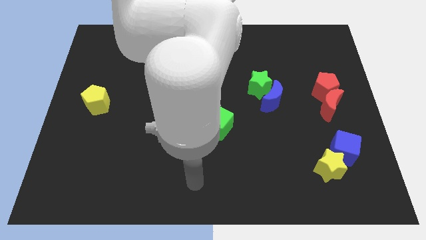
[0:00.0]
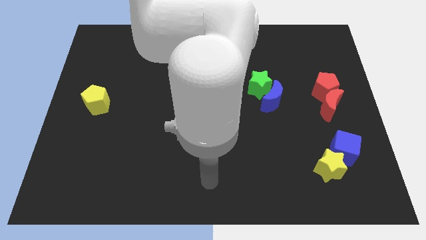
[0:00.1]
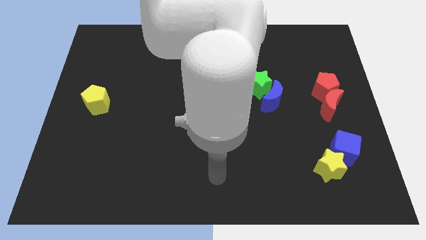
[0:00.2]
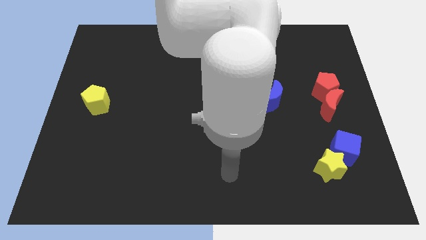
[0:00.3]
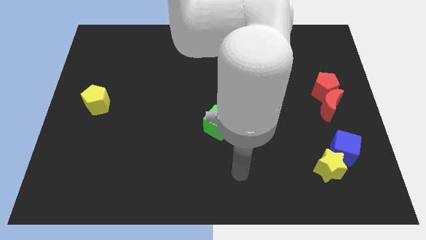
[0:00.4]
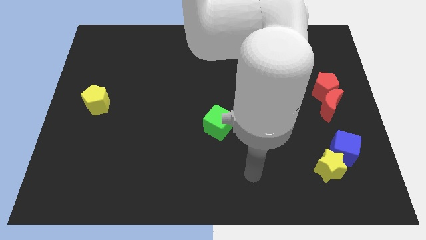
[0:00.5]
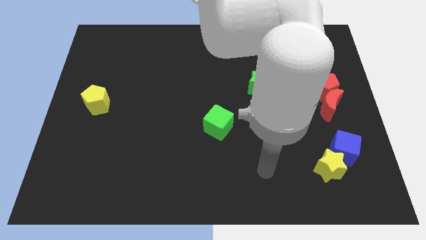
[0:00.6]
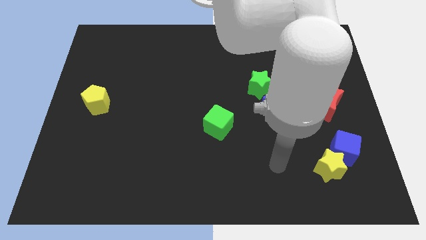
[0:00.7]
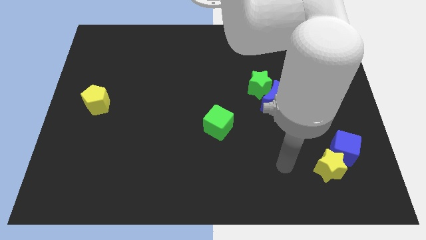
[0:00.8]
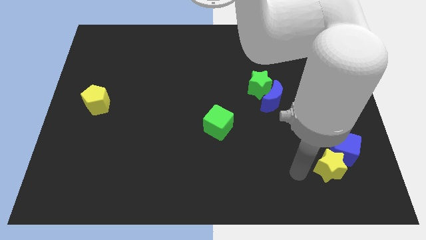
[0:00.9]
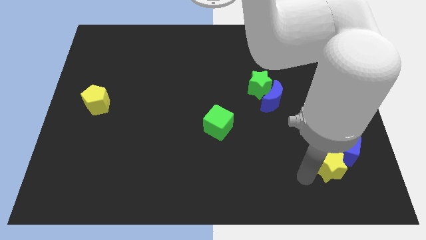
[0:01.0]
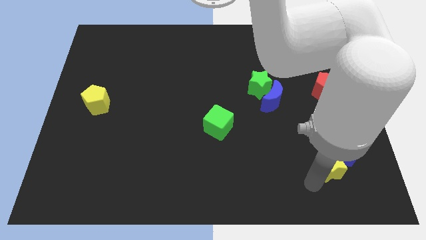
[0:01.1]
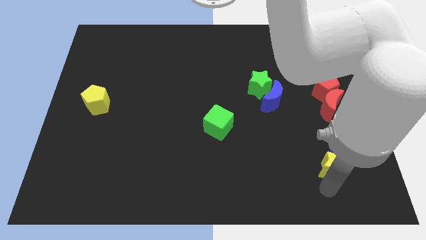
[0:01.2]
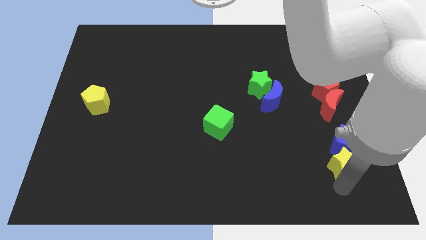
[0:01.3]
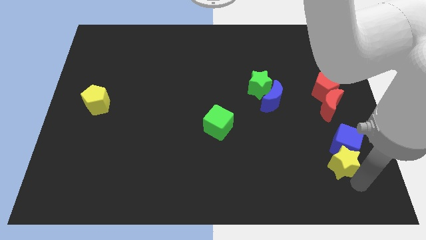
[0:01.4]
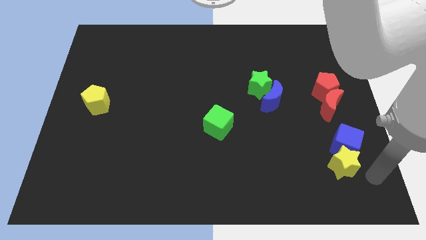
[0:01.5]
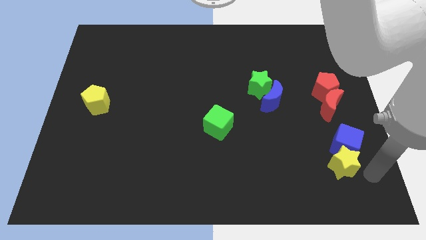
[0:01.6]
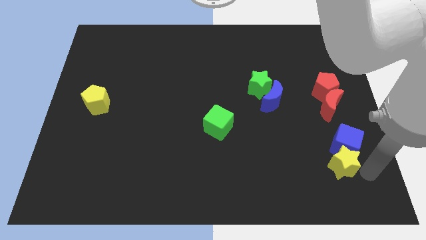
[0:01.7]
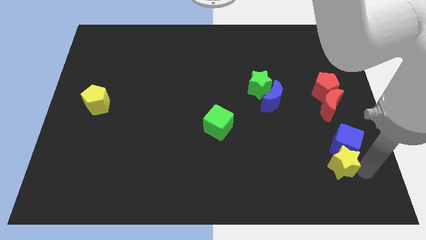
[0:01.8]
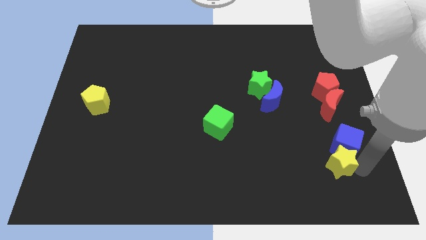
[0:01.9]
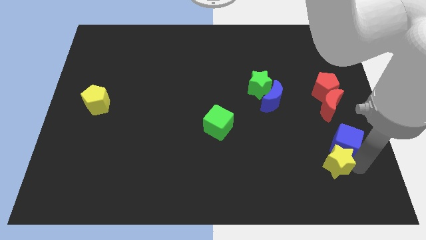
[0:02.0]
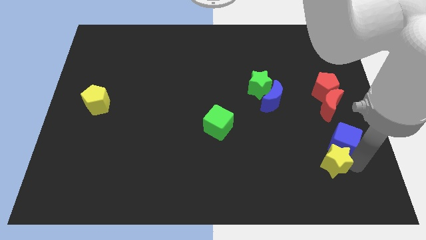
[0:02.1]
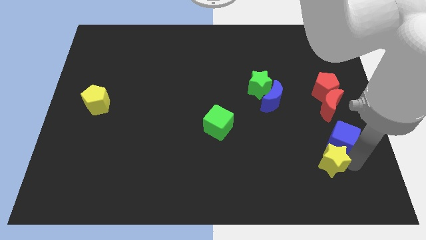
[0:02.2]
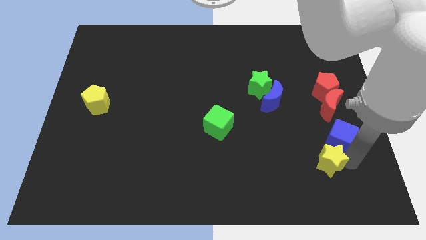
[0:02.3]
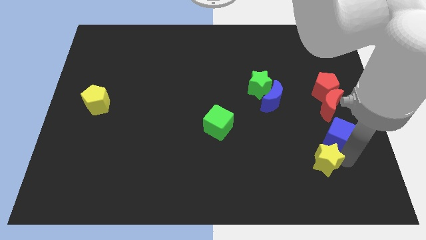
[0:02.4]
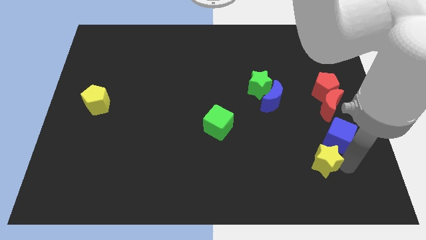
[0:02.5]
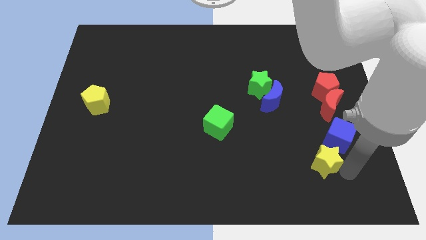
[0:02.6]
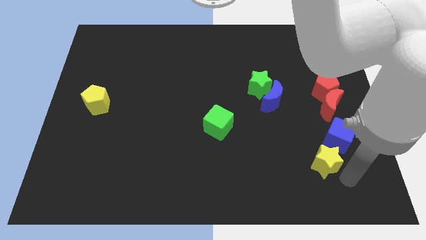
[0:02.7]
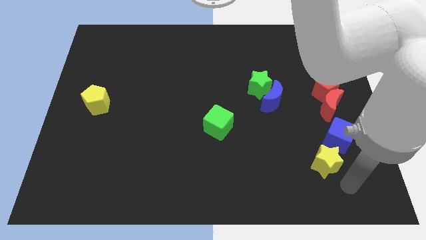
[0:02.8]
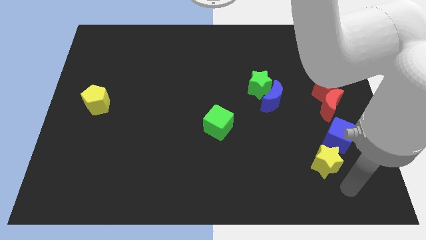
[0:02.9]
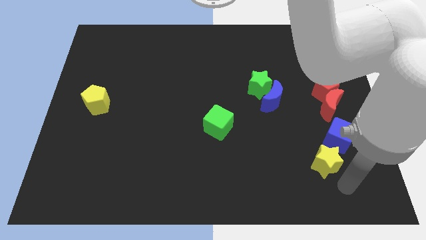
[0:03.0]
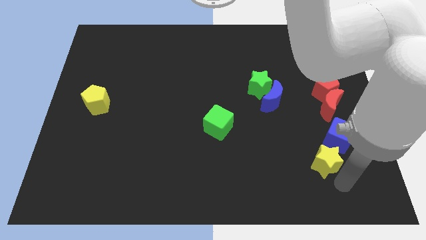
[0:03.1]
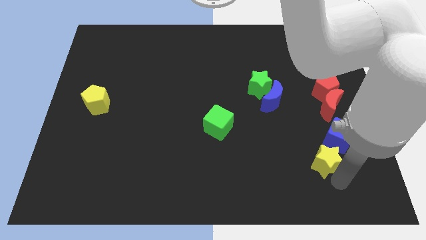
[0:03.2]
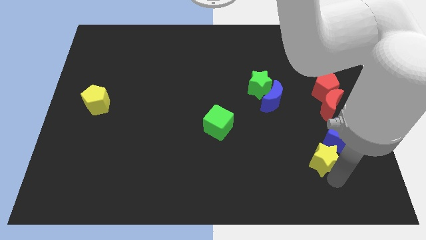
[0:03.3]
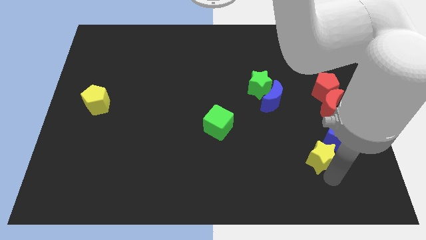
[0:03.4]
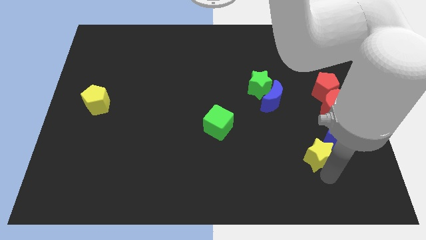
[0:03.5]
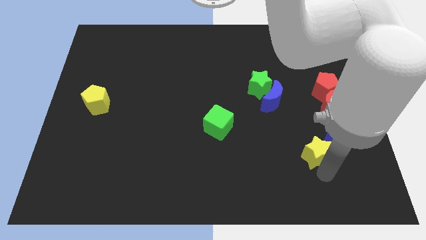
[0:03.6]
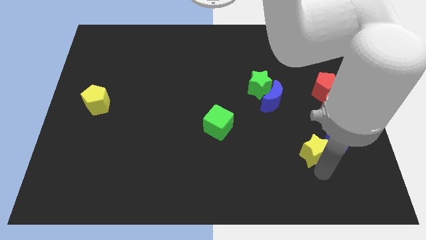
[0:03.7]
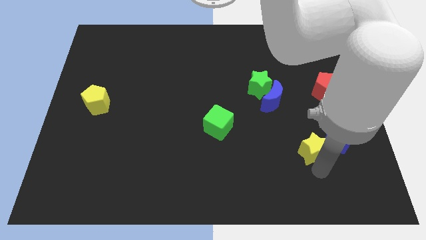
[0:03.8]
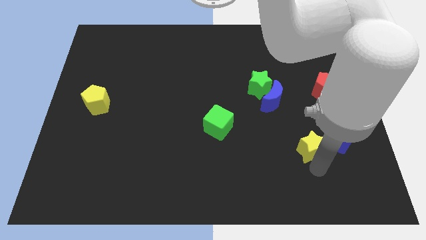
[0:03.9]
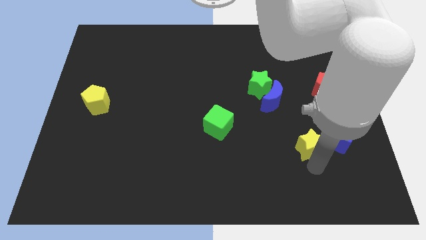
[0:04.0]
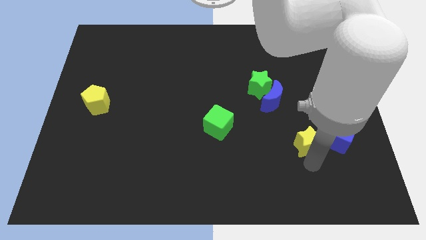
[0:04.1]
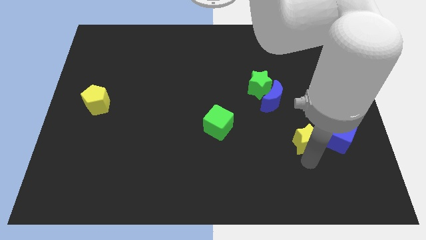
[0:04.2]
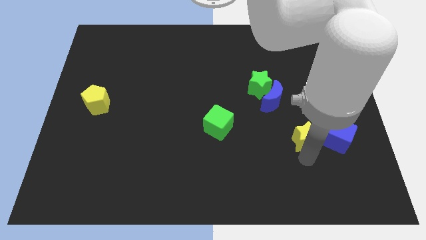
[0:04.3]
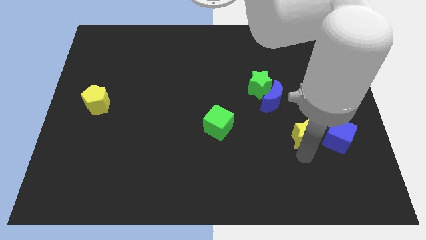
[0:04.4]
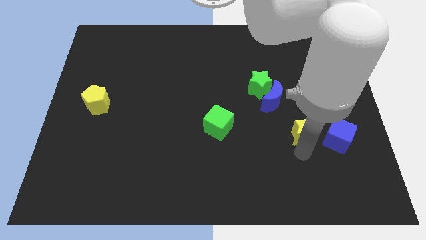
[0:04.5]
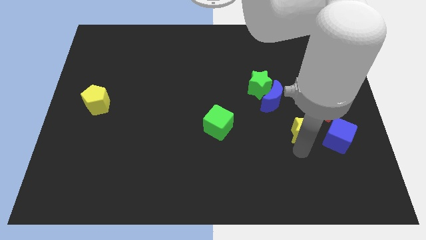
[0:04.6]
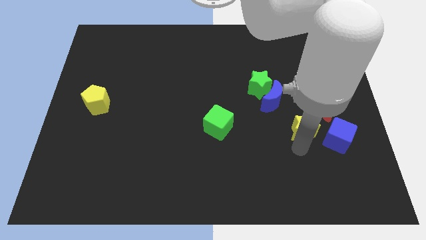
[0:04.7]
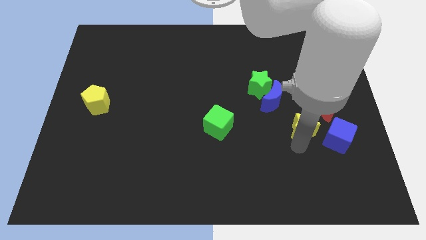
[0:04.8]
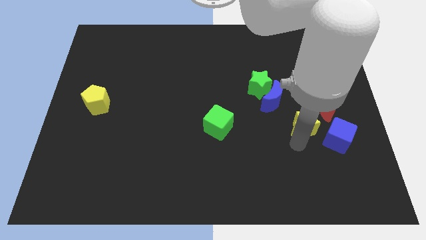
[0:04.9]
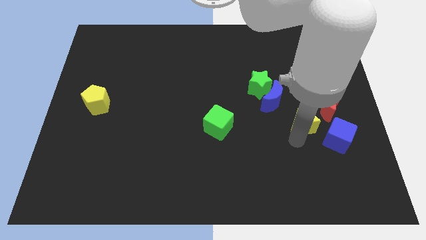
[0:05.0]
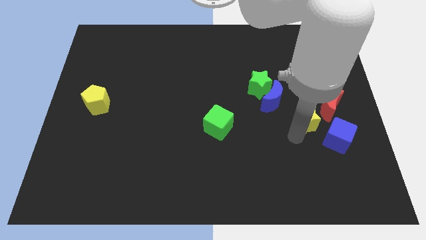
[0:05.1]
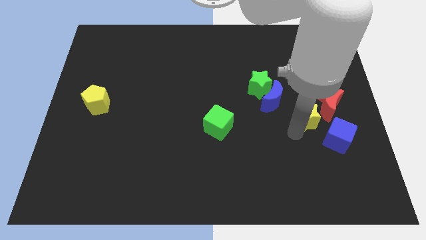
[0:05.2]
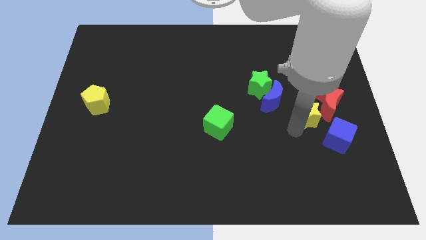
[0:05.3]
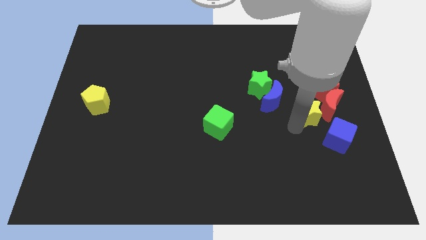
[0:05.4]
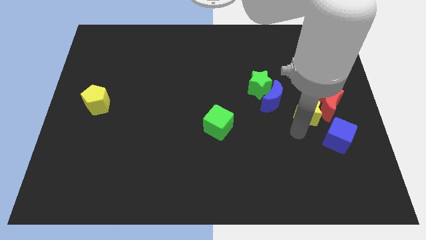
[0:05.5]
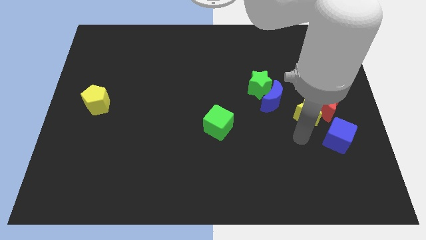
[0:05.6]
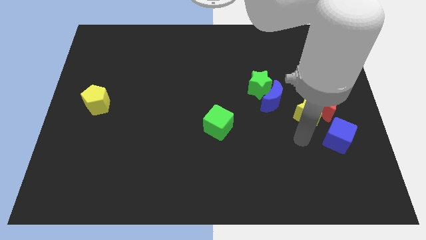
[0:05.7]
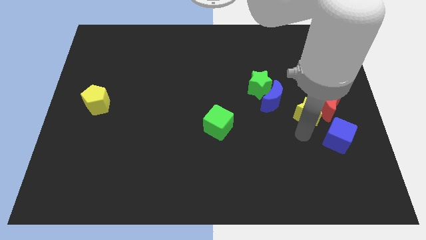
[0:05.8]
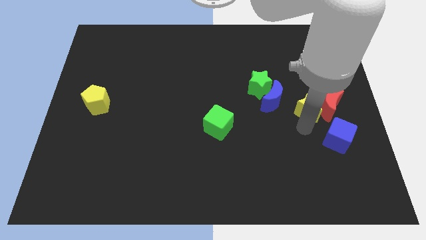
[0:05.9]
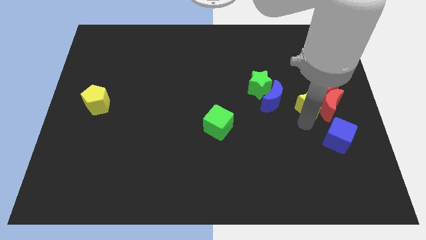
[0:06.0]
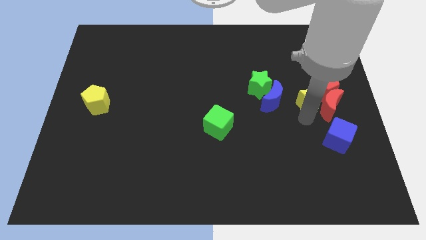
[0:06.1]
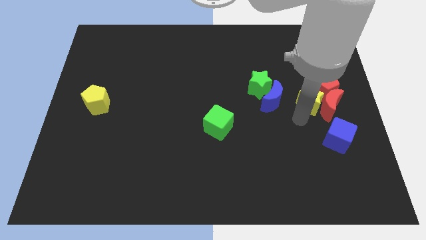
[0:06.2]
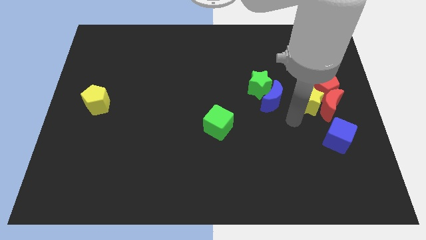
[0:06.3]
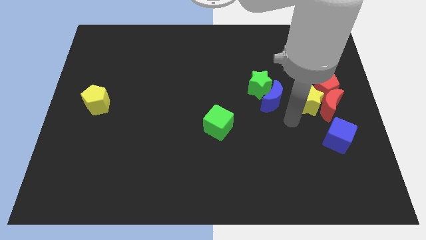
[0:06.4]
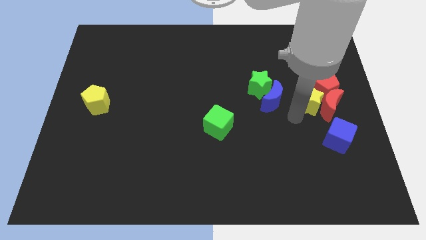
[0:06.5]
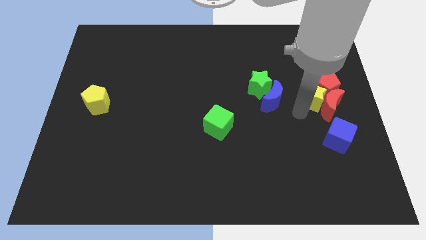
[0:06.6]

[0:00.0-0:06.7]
move the yellow star close to the red pentagon

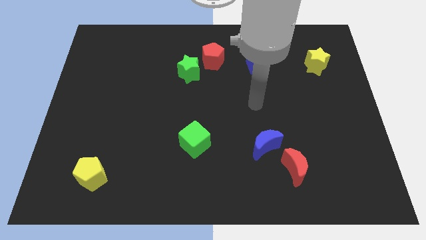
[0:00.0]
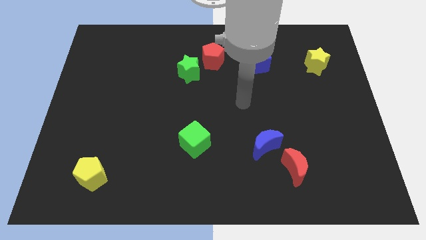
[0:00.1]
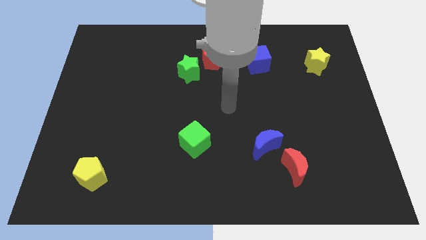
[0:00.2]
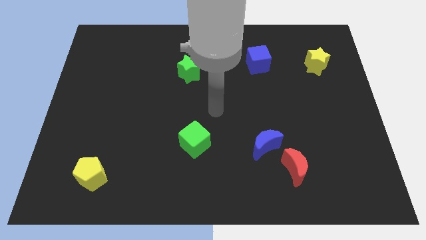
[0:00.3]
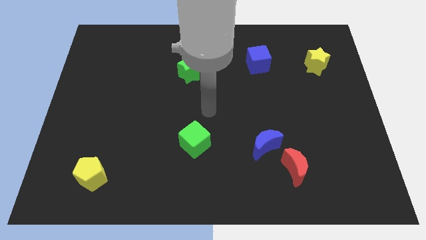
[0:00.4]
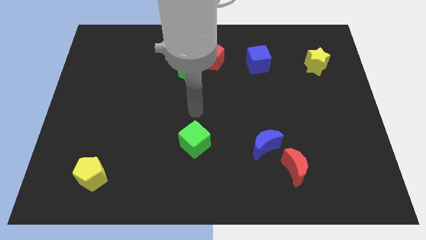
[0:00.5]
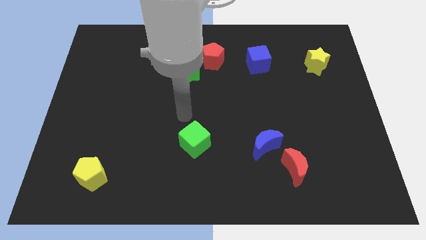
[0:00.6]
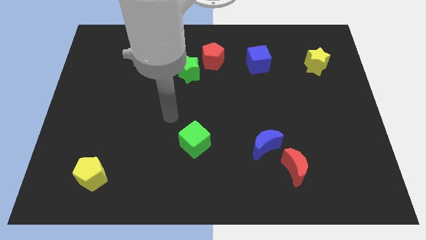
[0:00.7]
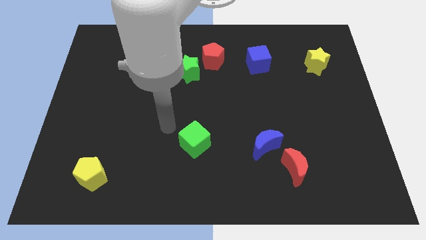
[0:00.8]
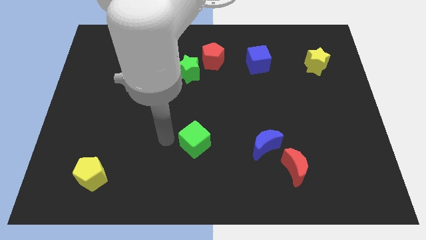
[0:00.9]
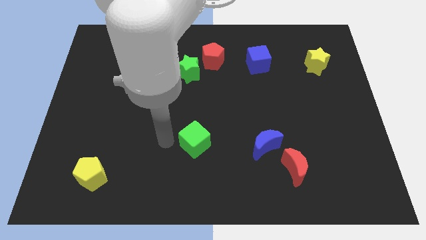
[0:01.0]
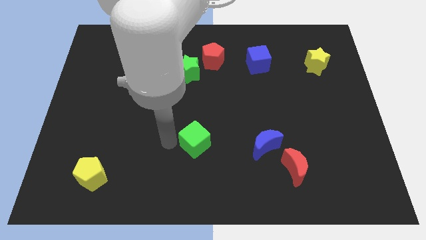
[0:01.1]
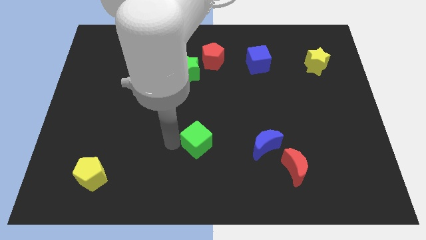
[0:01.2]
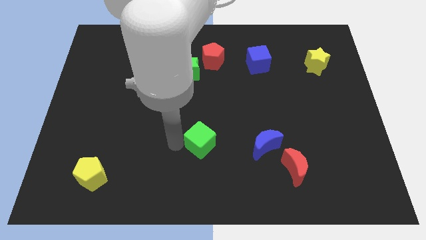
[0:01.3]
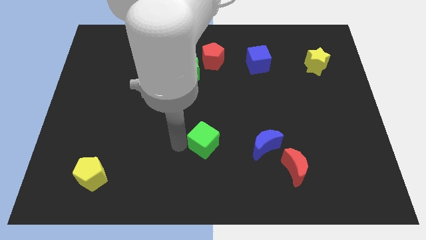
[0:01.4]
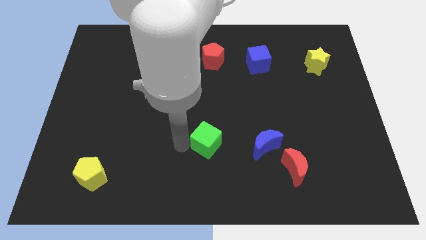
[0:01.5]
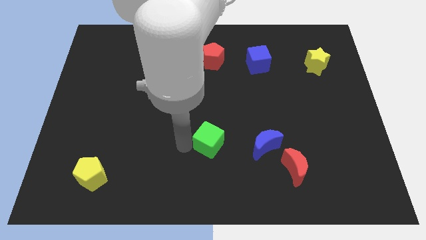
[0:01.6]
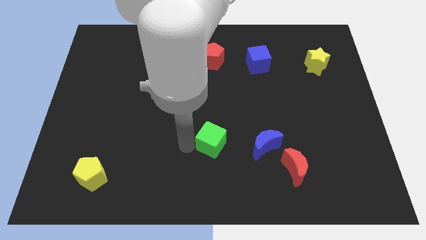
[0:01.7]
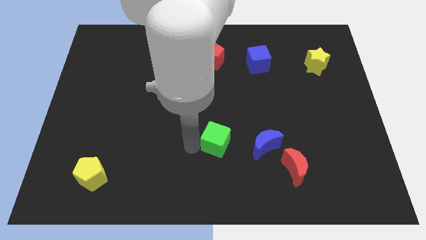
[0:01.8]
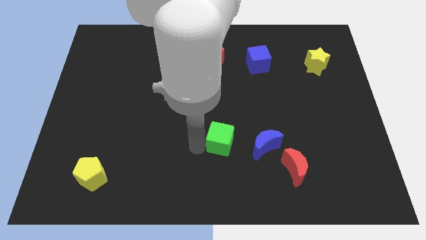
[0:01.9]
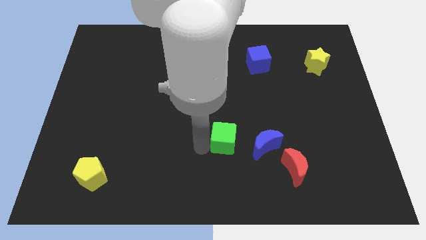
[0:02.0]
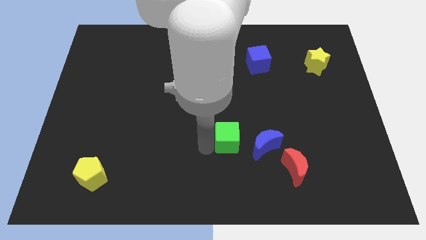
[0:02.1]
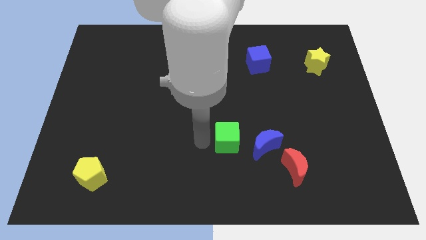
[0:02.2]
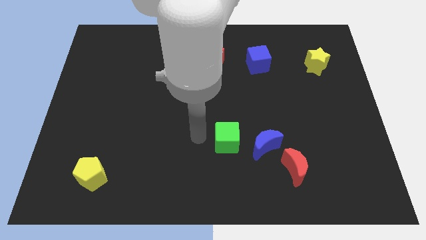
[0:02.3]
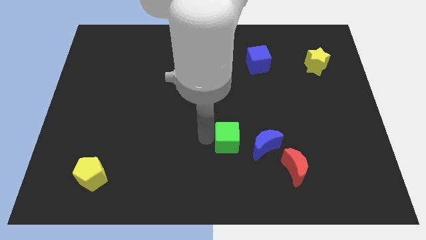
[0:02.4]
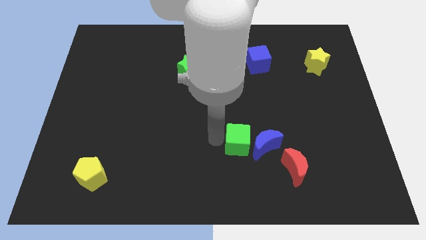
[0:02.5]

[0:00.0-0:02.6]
move the green cube next to the blue moon
